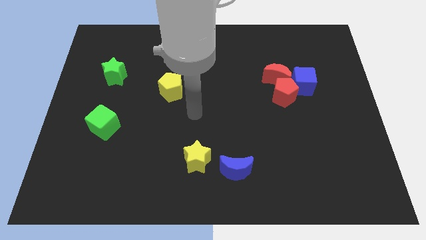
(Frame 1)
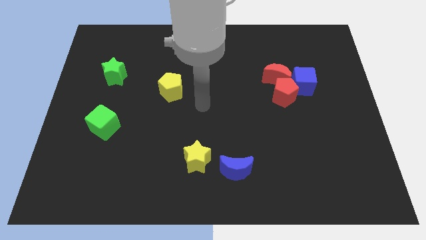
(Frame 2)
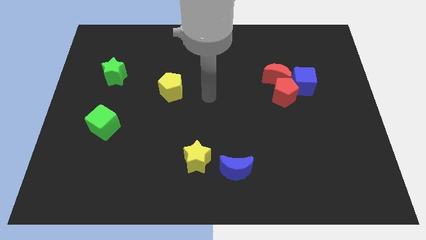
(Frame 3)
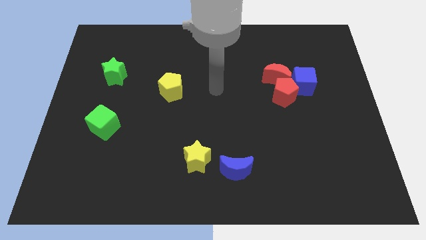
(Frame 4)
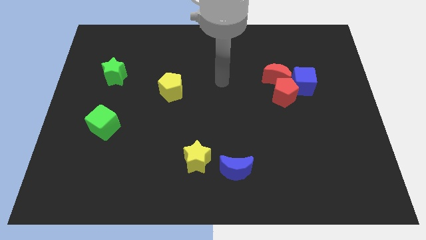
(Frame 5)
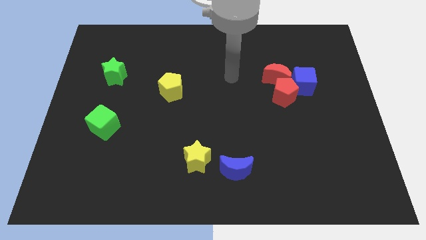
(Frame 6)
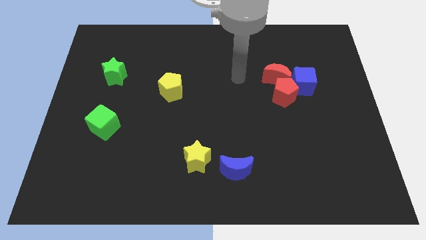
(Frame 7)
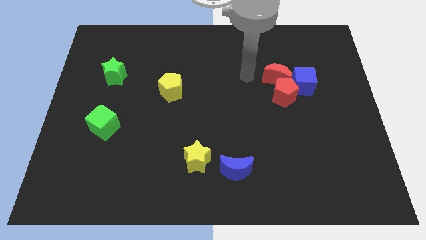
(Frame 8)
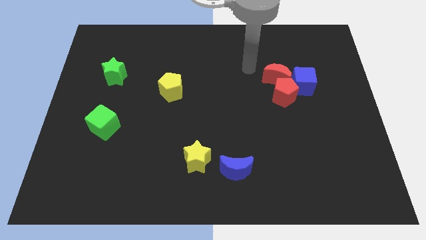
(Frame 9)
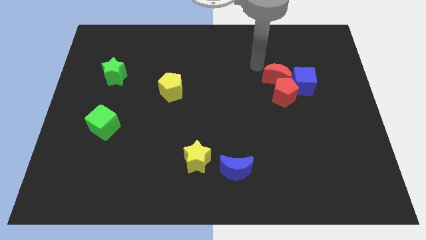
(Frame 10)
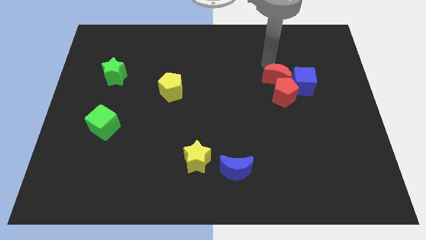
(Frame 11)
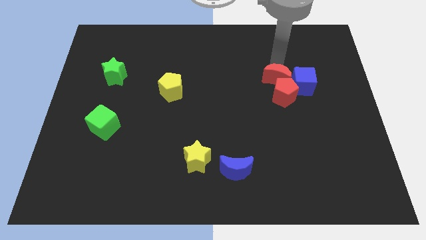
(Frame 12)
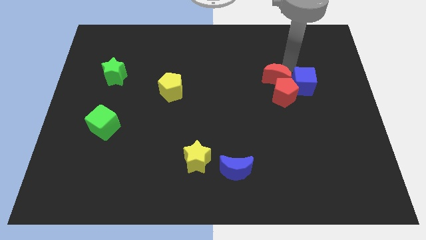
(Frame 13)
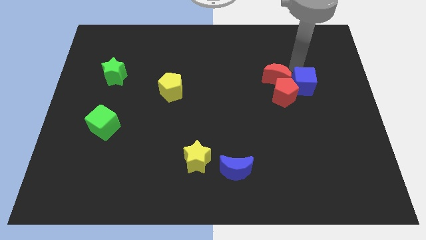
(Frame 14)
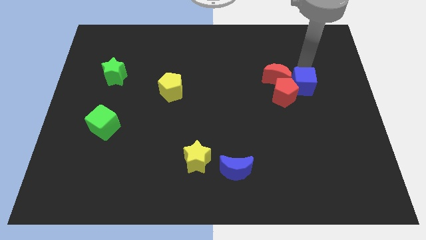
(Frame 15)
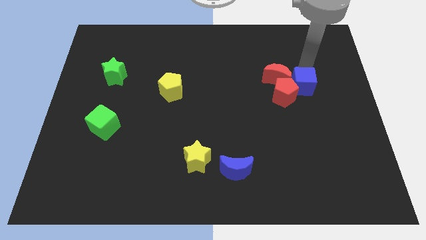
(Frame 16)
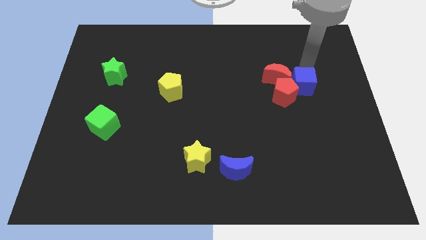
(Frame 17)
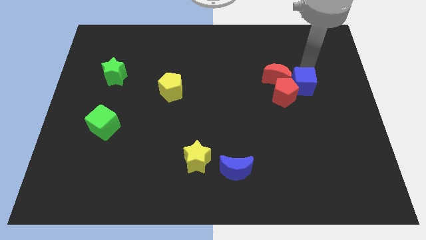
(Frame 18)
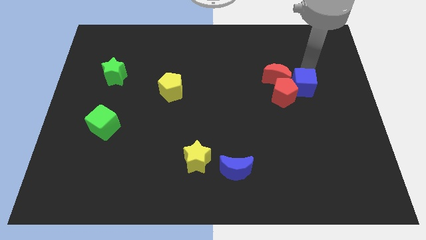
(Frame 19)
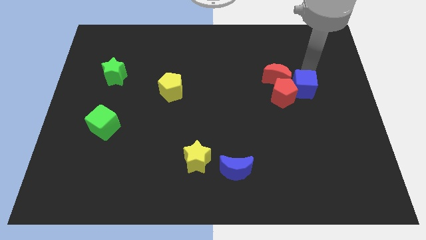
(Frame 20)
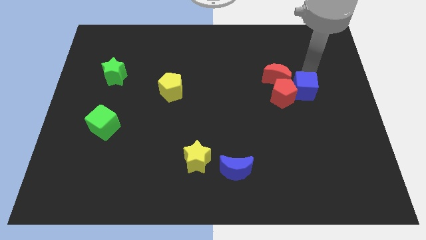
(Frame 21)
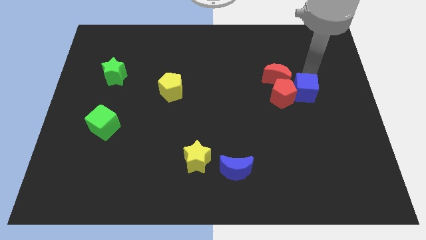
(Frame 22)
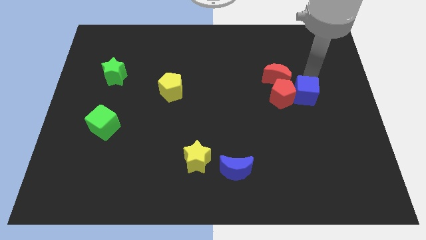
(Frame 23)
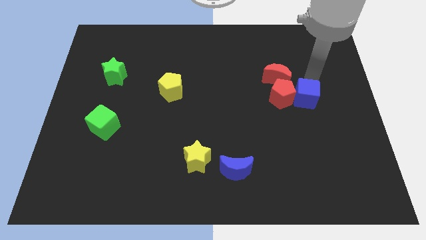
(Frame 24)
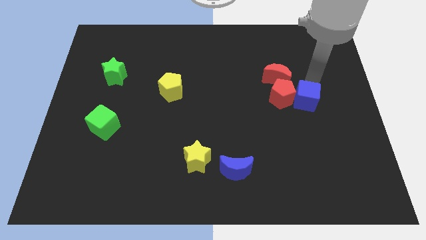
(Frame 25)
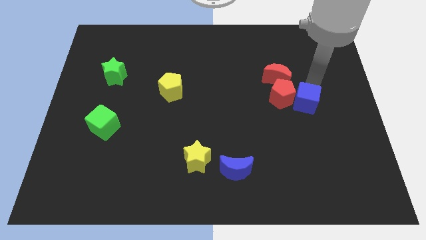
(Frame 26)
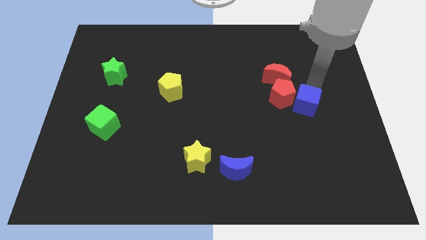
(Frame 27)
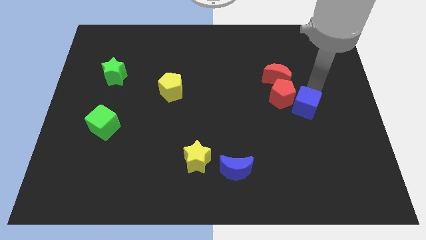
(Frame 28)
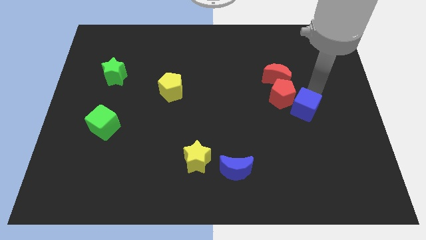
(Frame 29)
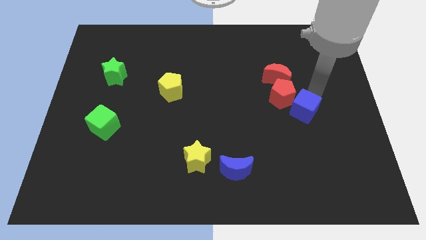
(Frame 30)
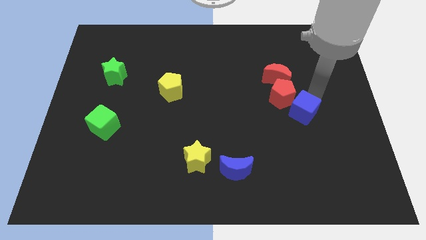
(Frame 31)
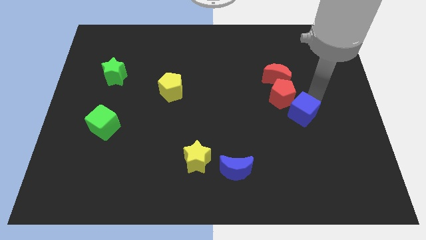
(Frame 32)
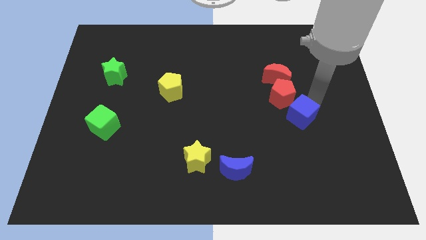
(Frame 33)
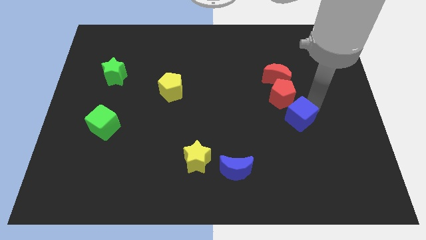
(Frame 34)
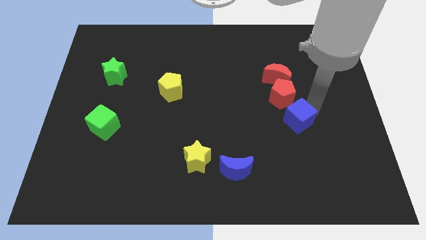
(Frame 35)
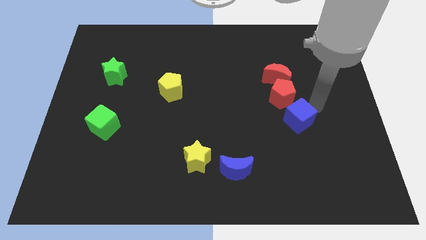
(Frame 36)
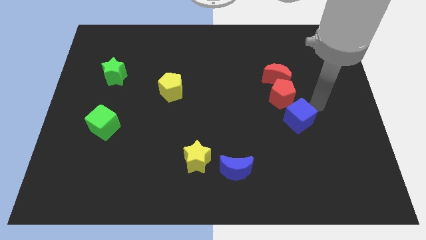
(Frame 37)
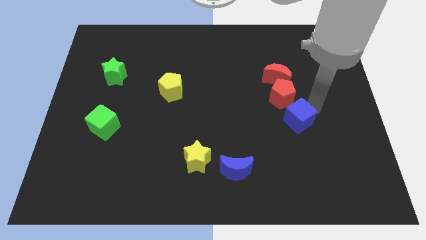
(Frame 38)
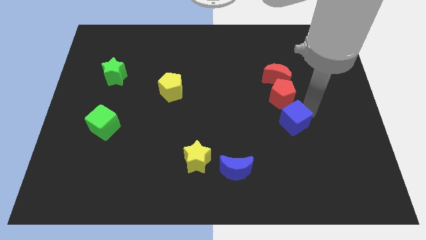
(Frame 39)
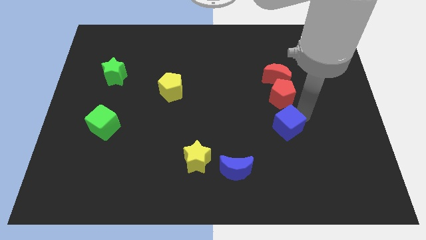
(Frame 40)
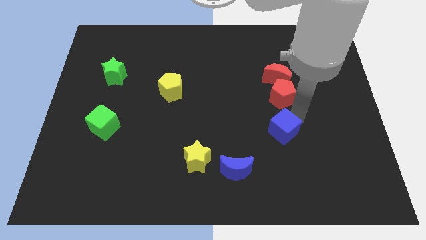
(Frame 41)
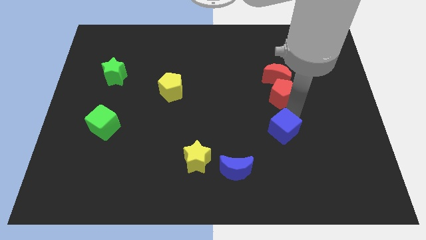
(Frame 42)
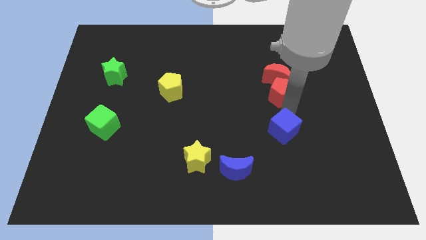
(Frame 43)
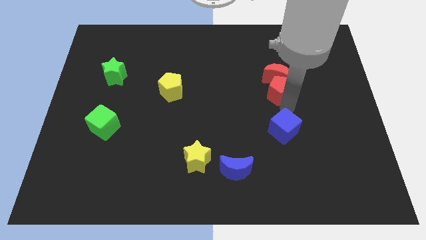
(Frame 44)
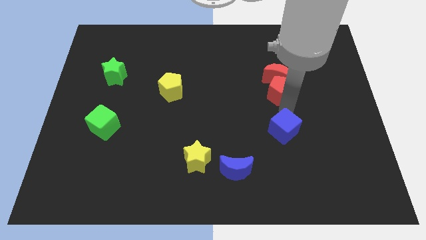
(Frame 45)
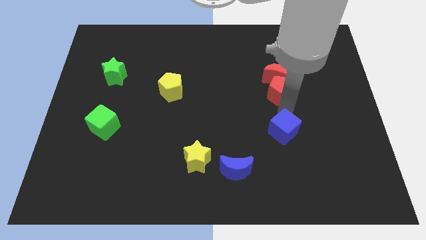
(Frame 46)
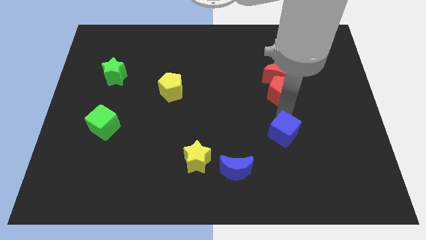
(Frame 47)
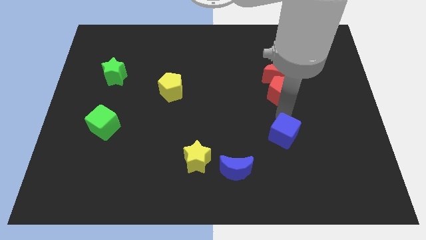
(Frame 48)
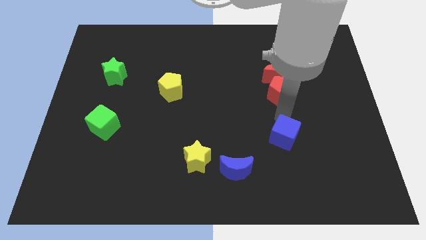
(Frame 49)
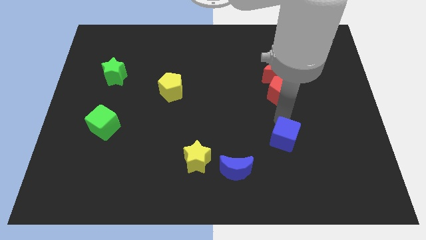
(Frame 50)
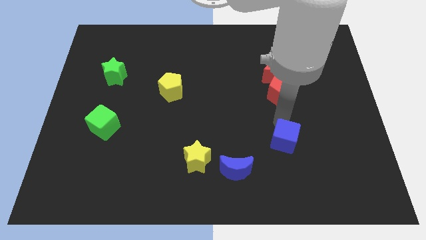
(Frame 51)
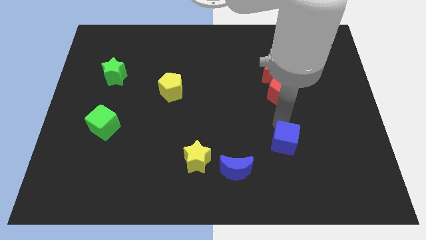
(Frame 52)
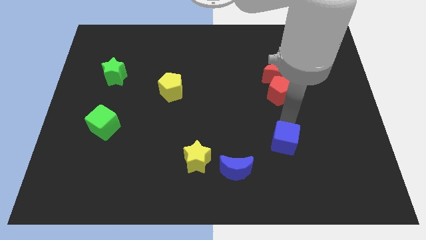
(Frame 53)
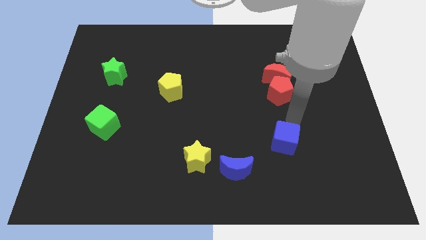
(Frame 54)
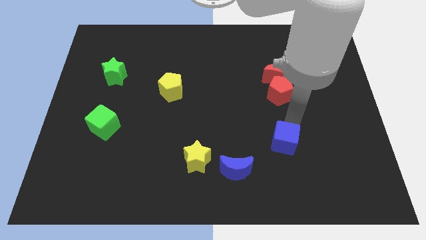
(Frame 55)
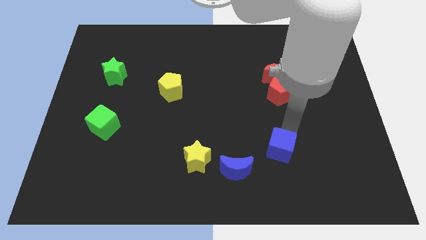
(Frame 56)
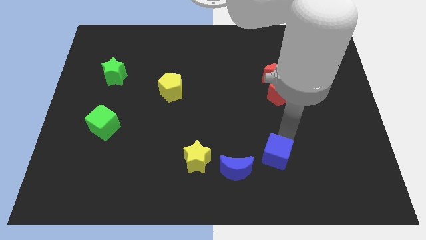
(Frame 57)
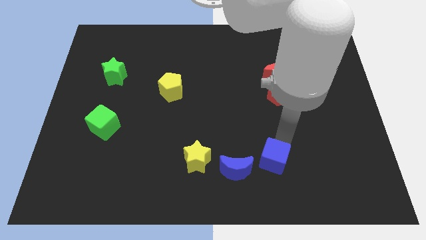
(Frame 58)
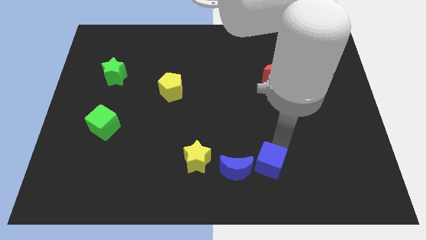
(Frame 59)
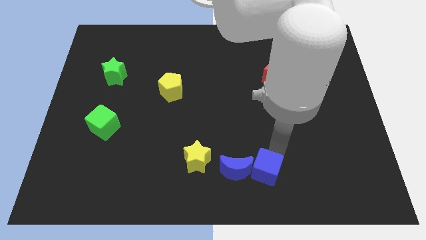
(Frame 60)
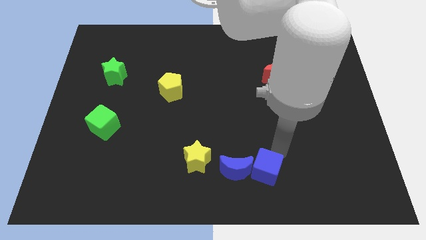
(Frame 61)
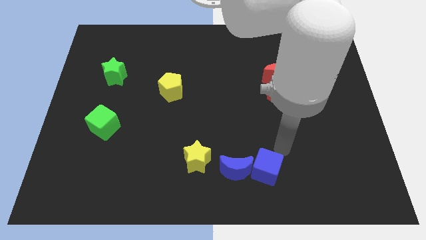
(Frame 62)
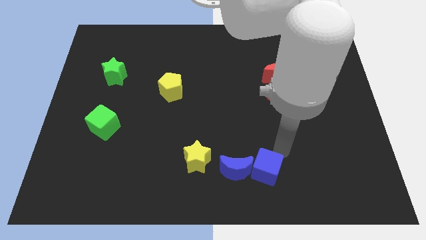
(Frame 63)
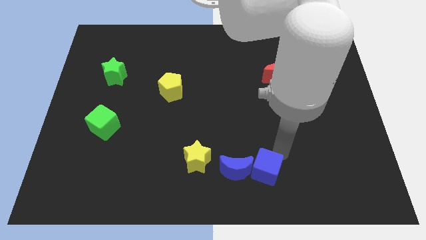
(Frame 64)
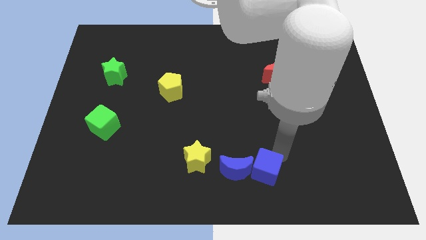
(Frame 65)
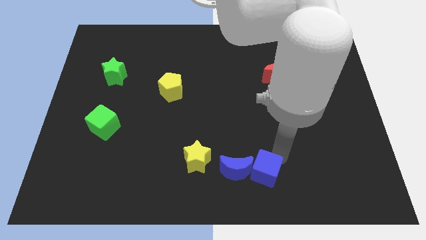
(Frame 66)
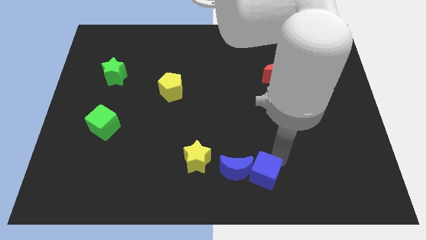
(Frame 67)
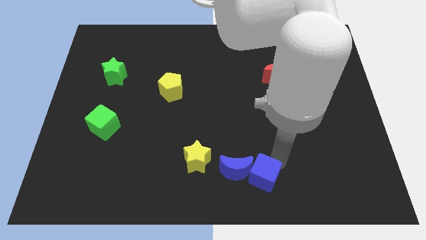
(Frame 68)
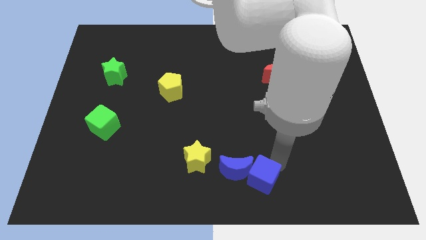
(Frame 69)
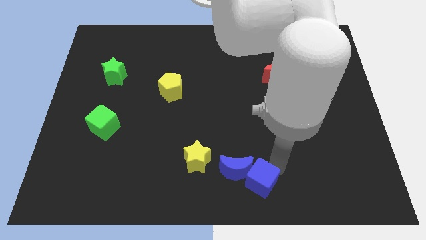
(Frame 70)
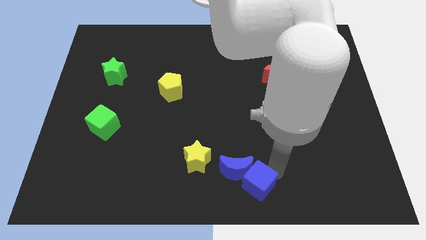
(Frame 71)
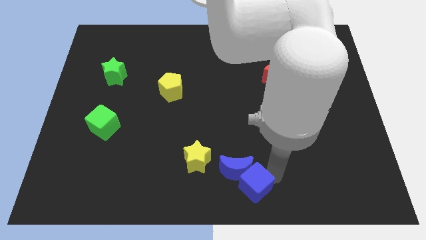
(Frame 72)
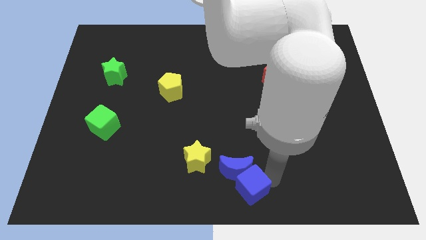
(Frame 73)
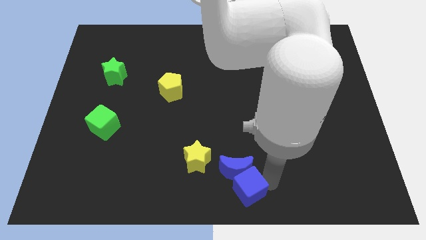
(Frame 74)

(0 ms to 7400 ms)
slide the blue cube to the bottom right side of the yellow star

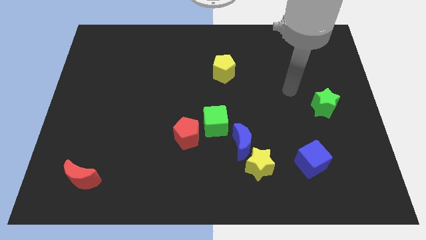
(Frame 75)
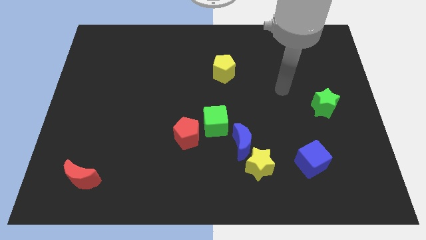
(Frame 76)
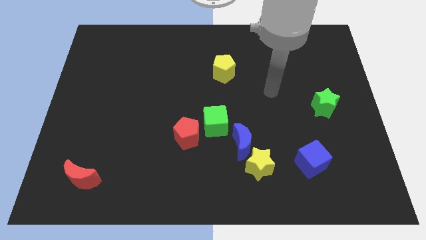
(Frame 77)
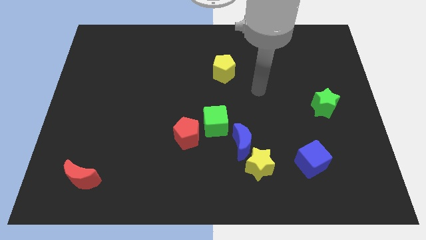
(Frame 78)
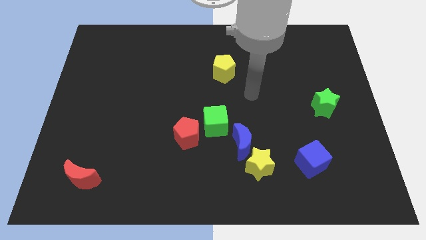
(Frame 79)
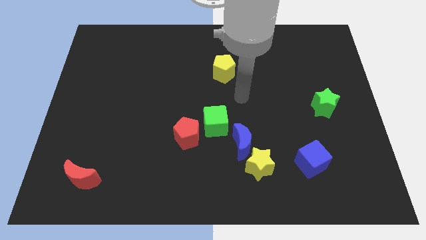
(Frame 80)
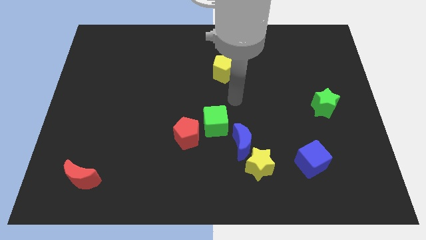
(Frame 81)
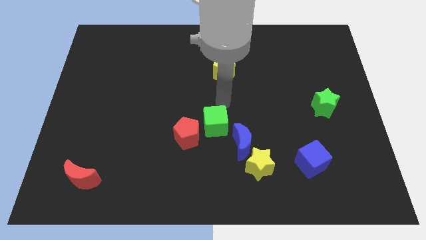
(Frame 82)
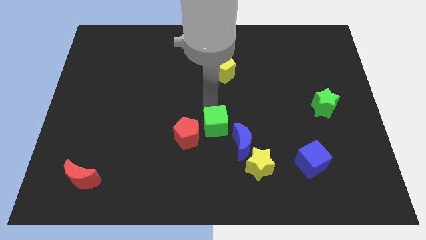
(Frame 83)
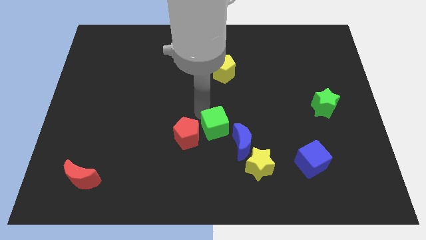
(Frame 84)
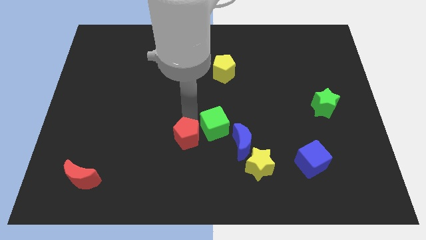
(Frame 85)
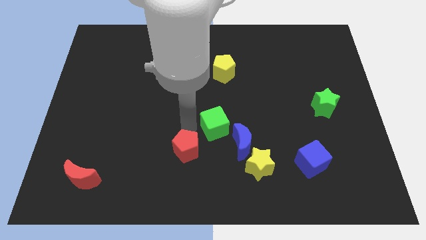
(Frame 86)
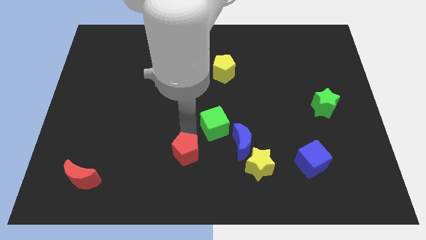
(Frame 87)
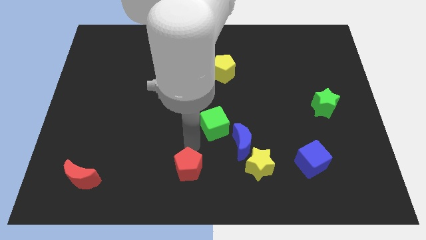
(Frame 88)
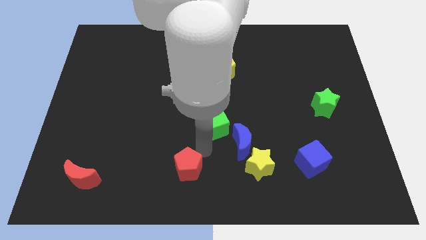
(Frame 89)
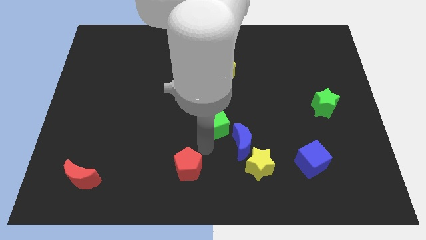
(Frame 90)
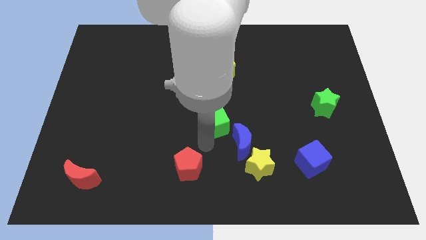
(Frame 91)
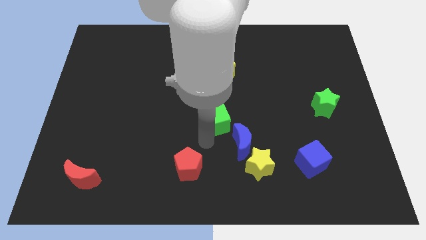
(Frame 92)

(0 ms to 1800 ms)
push the green cube to the bottom side of the yellow pentagon
